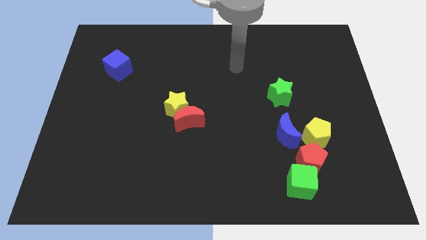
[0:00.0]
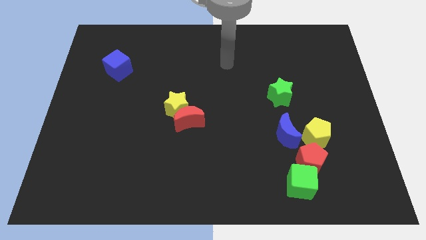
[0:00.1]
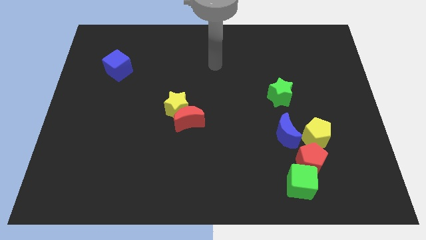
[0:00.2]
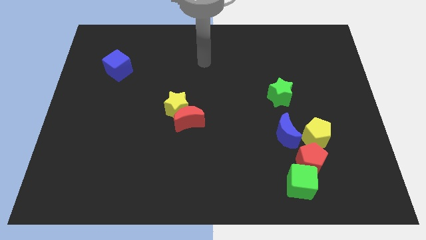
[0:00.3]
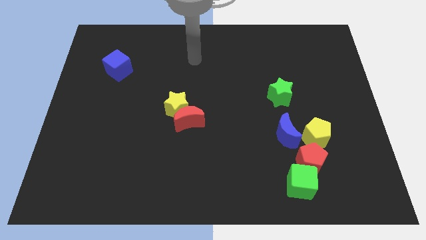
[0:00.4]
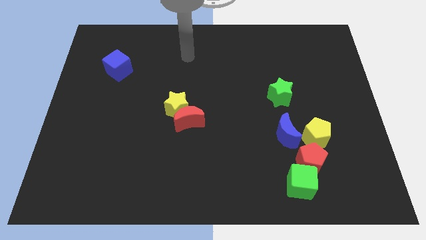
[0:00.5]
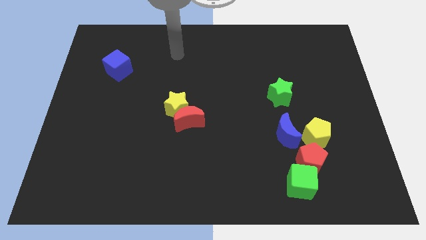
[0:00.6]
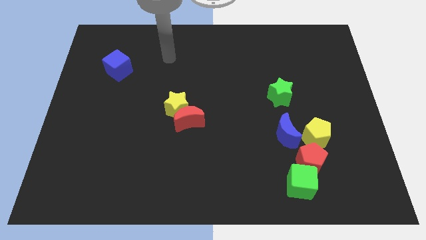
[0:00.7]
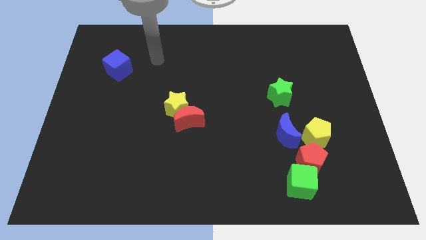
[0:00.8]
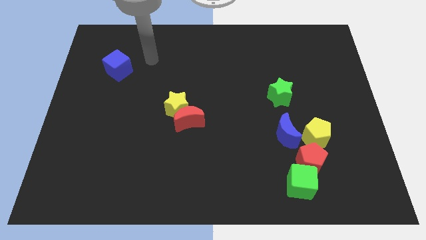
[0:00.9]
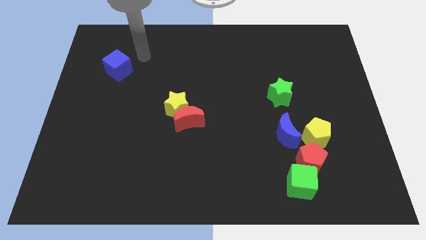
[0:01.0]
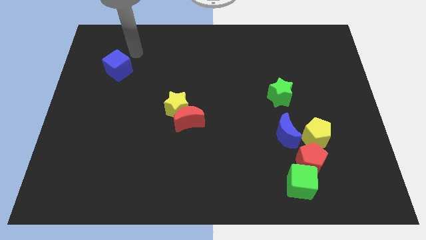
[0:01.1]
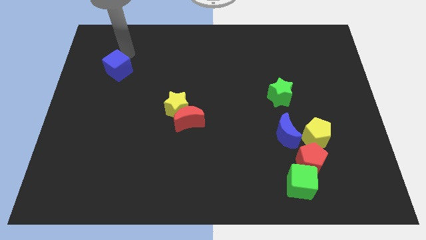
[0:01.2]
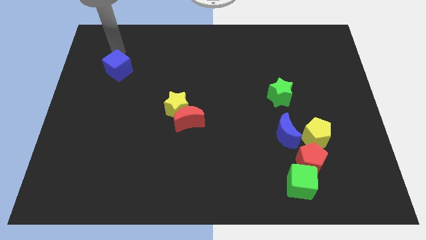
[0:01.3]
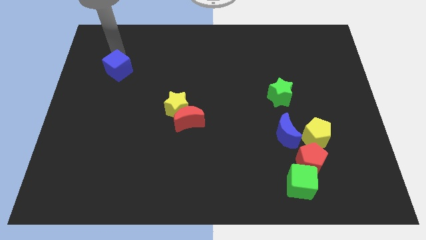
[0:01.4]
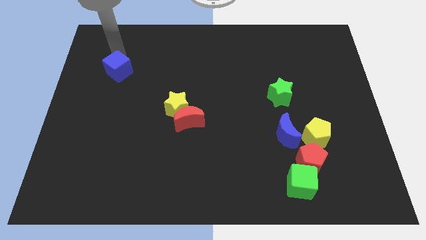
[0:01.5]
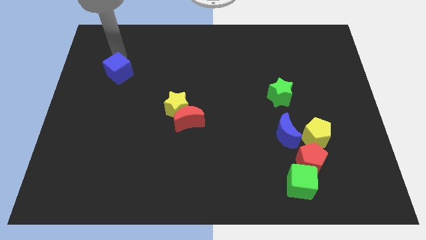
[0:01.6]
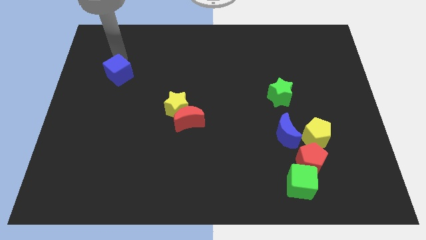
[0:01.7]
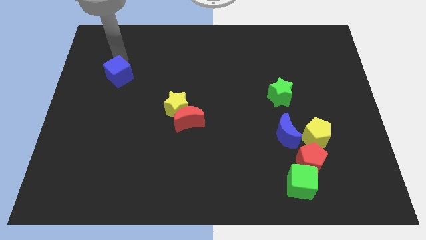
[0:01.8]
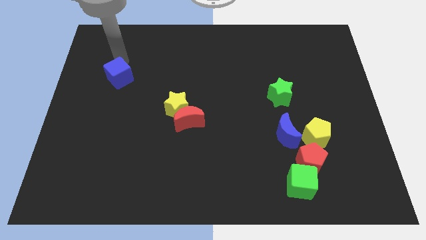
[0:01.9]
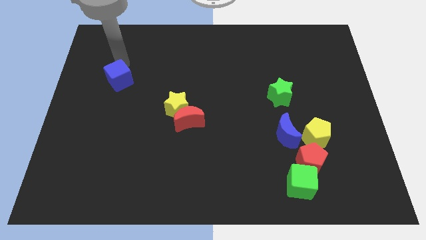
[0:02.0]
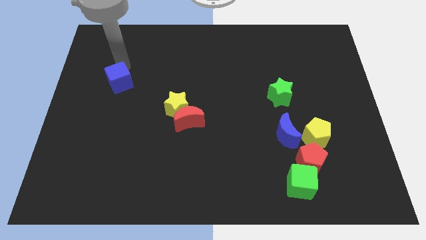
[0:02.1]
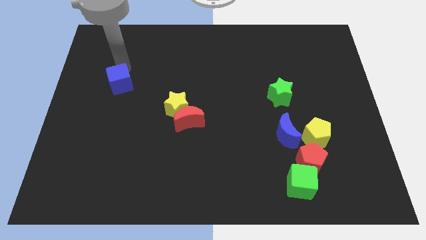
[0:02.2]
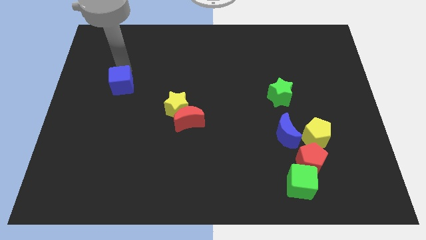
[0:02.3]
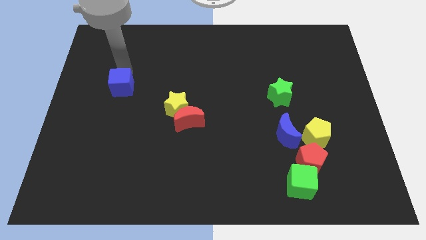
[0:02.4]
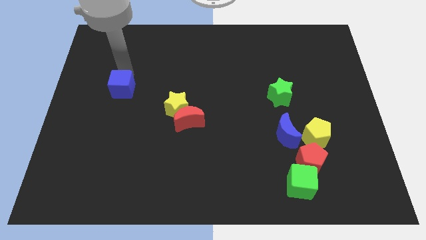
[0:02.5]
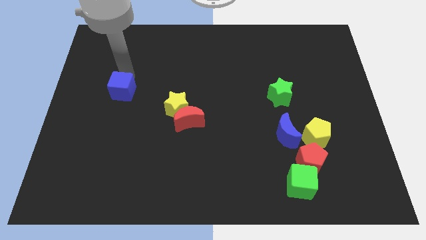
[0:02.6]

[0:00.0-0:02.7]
push the blue cube down a little

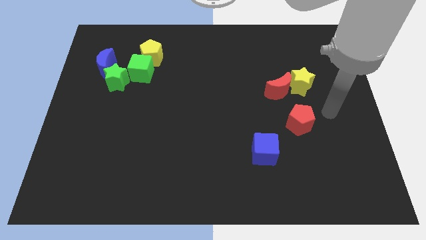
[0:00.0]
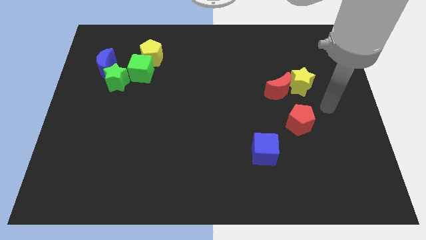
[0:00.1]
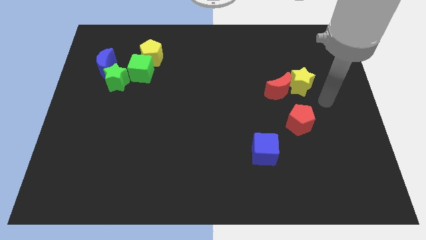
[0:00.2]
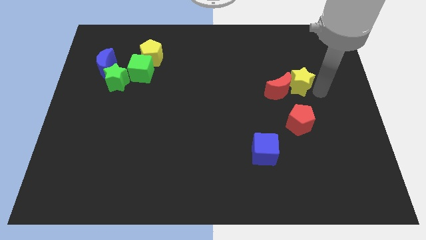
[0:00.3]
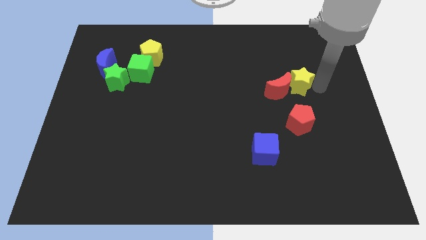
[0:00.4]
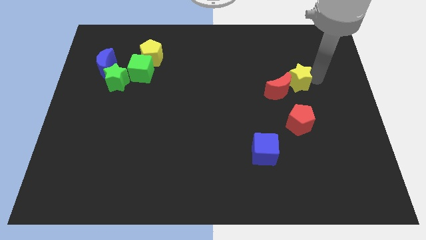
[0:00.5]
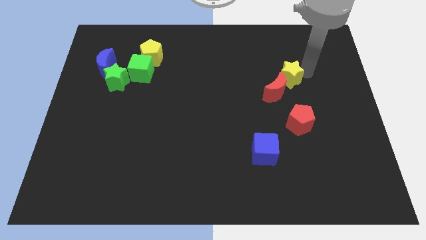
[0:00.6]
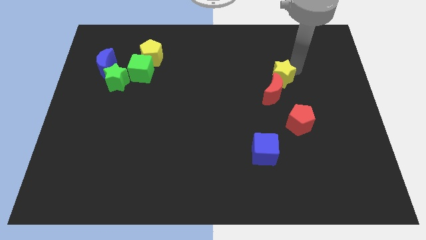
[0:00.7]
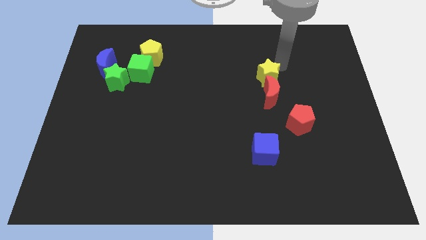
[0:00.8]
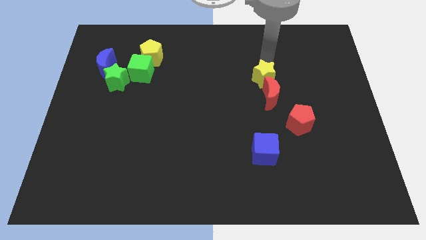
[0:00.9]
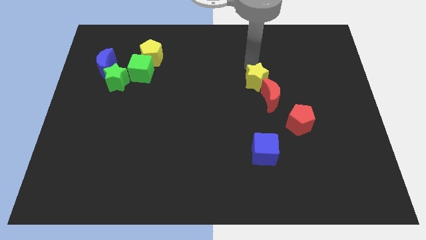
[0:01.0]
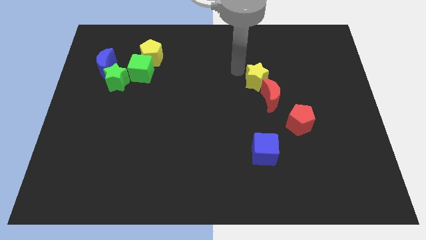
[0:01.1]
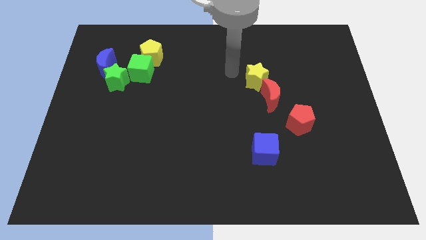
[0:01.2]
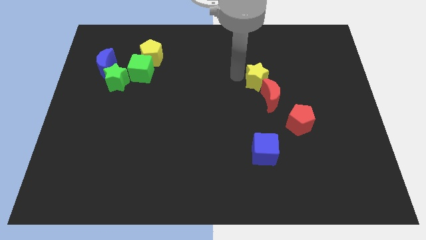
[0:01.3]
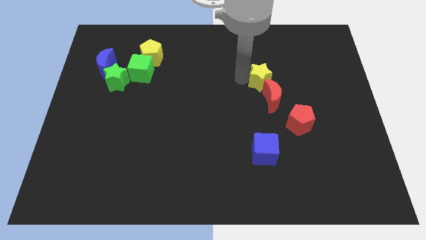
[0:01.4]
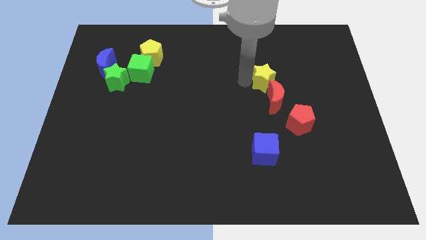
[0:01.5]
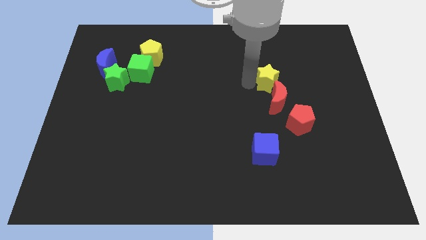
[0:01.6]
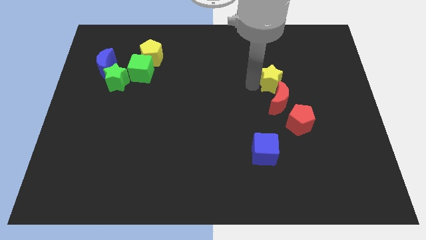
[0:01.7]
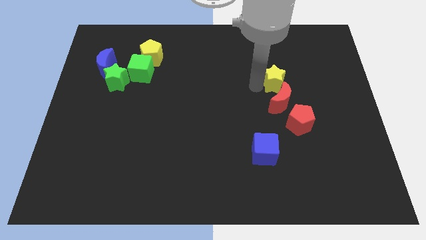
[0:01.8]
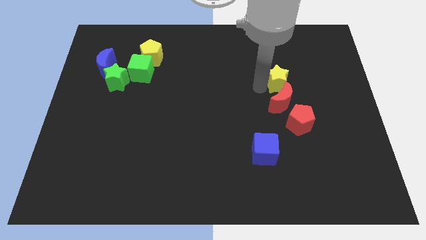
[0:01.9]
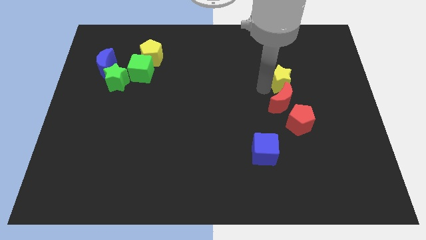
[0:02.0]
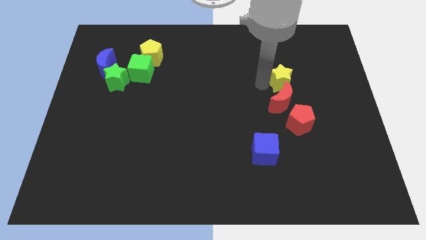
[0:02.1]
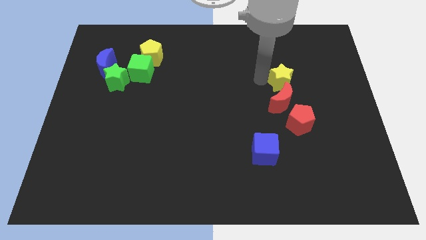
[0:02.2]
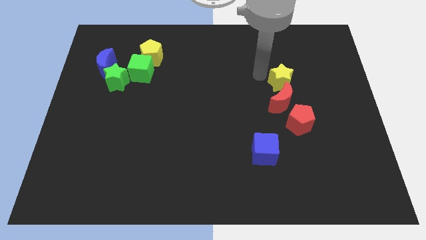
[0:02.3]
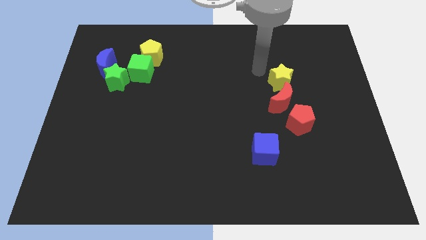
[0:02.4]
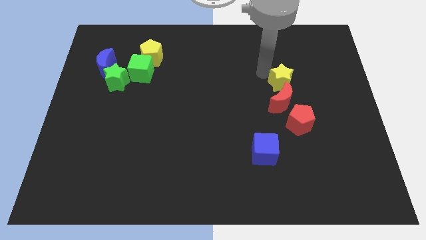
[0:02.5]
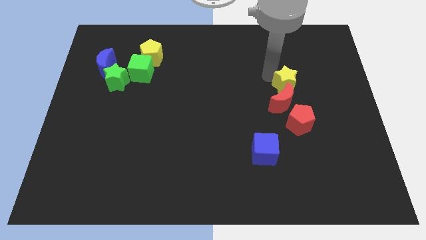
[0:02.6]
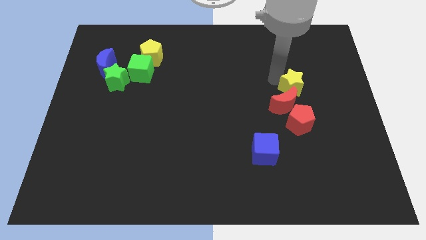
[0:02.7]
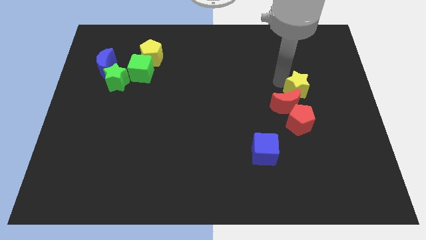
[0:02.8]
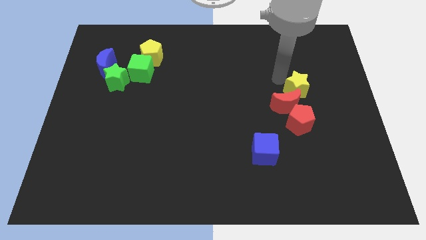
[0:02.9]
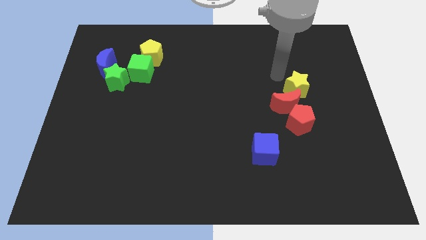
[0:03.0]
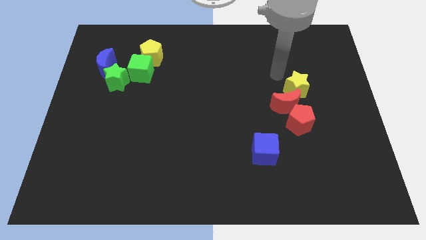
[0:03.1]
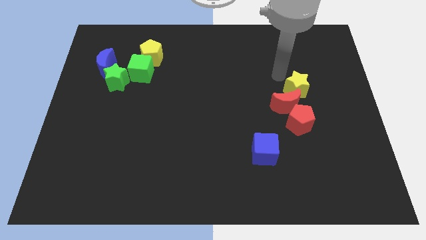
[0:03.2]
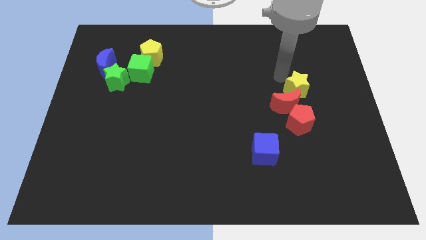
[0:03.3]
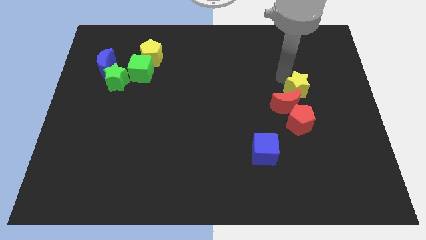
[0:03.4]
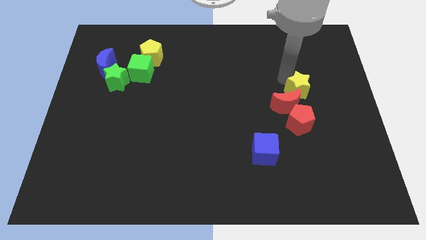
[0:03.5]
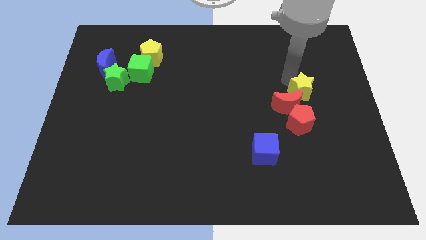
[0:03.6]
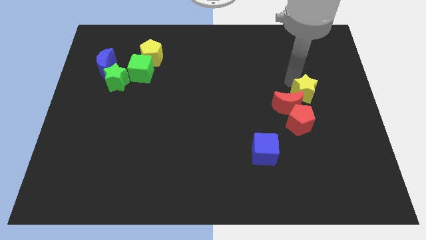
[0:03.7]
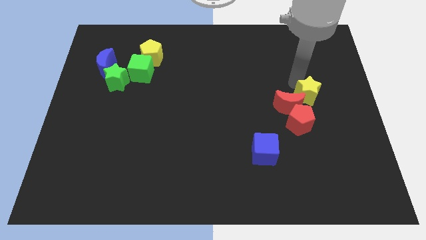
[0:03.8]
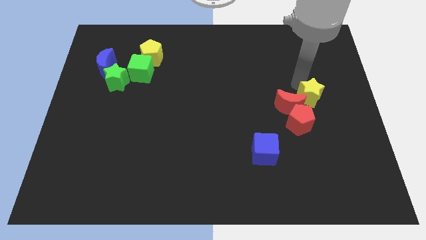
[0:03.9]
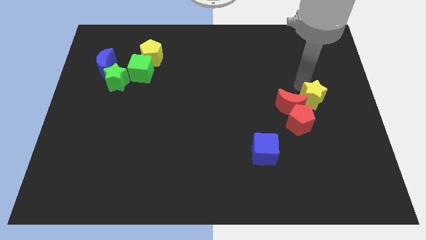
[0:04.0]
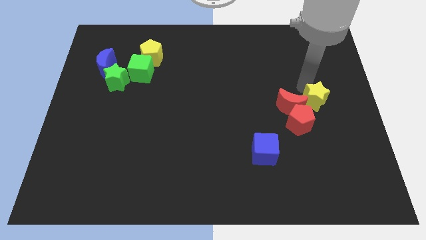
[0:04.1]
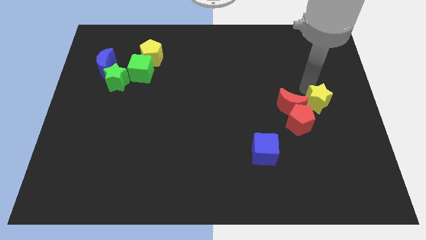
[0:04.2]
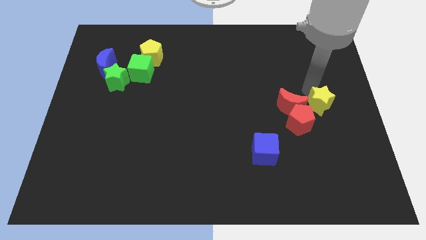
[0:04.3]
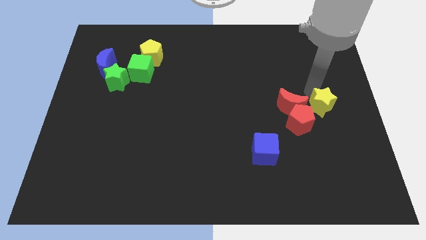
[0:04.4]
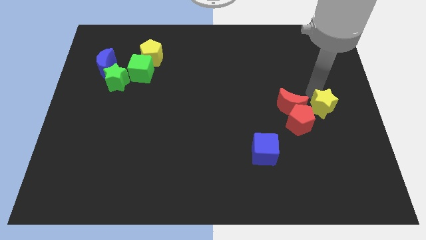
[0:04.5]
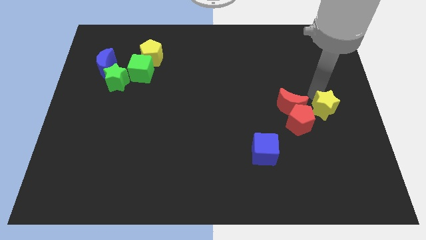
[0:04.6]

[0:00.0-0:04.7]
move the yellow star a bit downwards

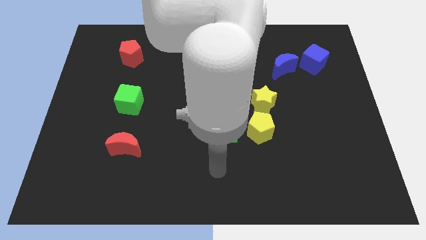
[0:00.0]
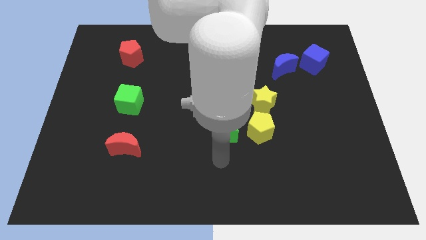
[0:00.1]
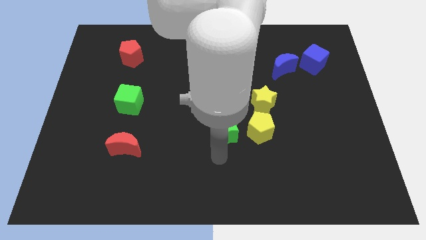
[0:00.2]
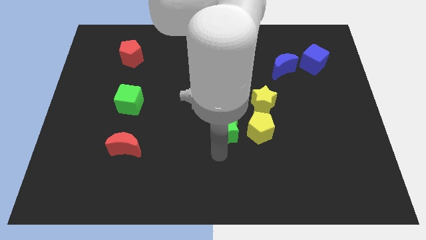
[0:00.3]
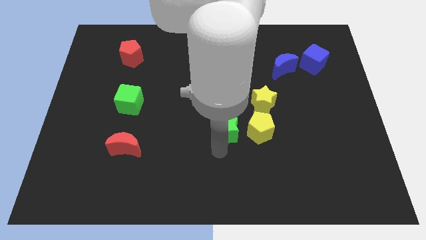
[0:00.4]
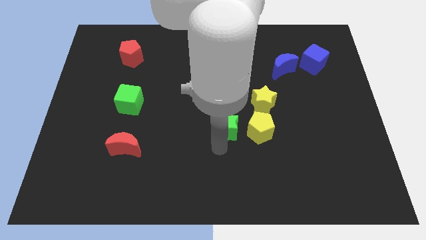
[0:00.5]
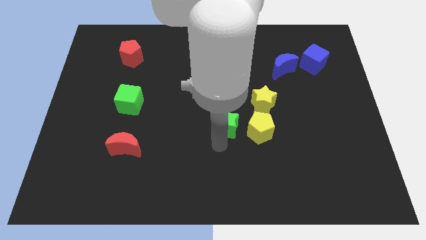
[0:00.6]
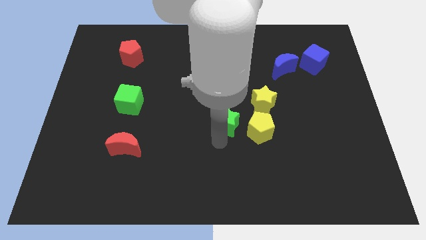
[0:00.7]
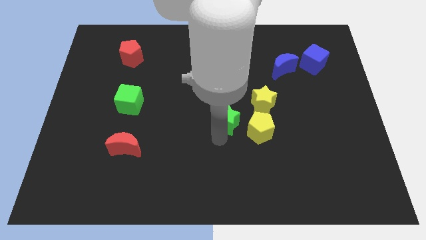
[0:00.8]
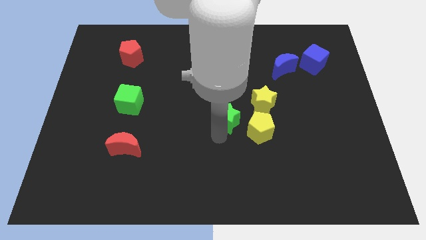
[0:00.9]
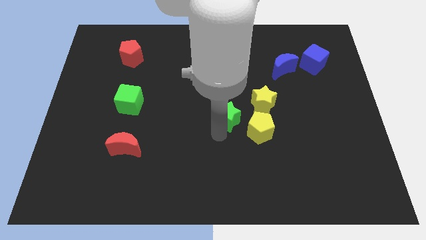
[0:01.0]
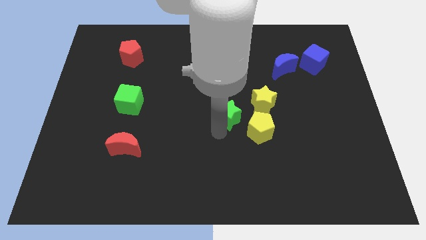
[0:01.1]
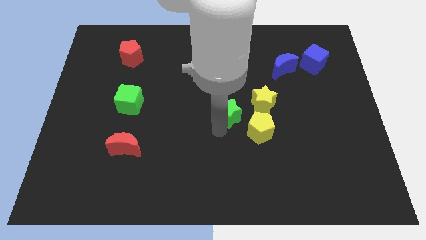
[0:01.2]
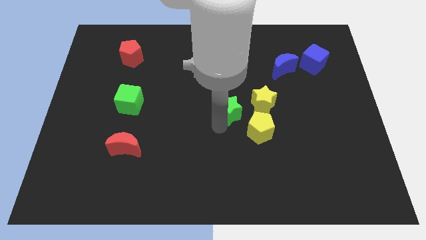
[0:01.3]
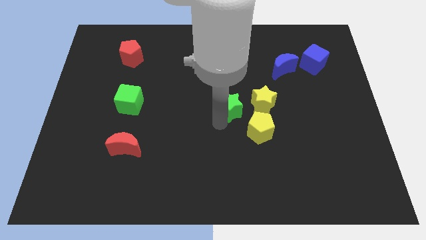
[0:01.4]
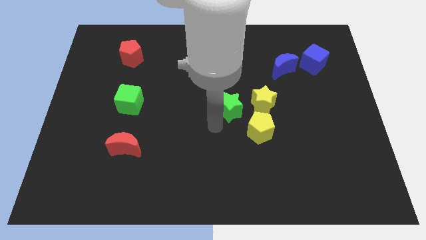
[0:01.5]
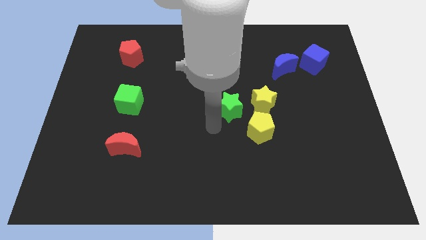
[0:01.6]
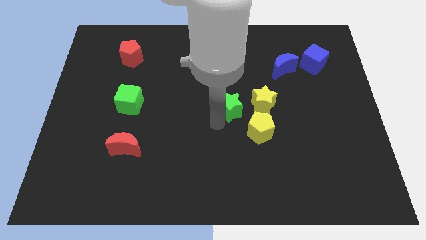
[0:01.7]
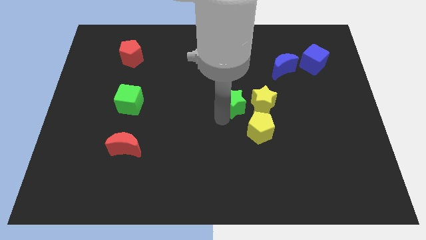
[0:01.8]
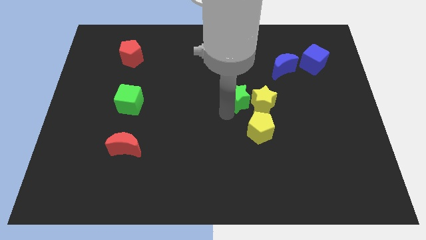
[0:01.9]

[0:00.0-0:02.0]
slightly move the green star diagonally upwards and to the right
